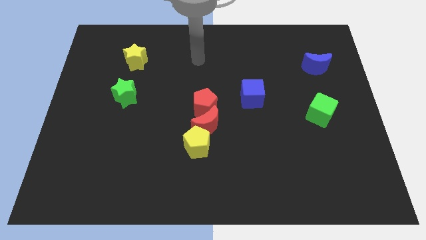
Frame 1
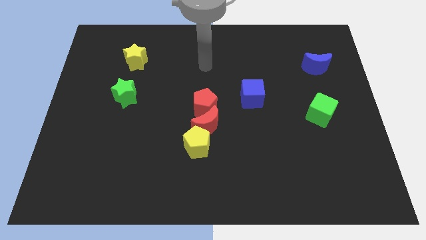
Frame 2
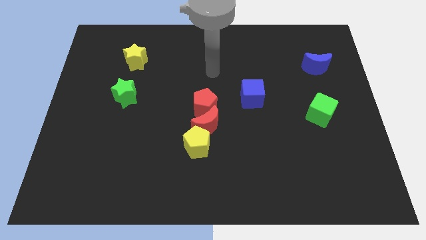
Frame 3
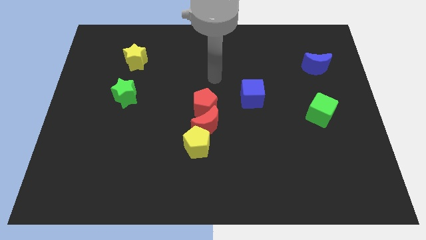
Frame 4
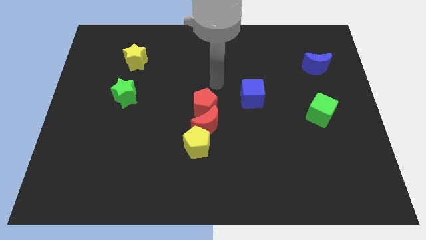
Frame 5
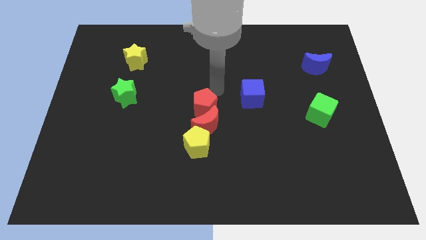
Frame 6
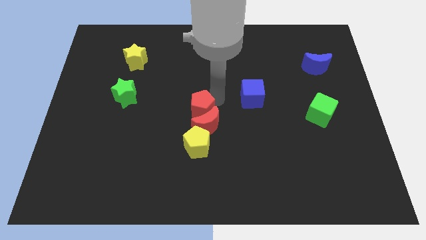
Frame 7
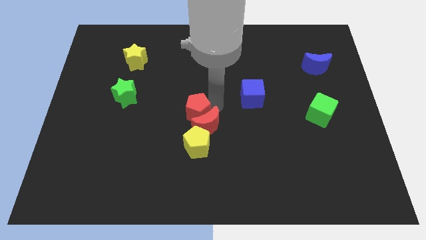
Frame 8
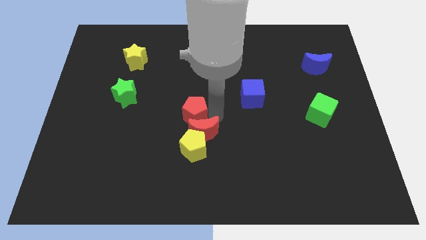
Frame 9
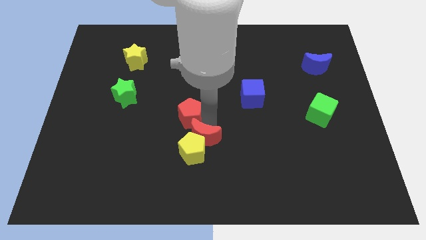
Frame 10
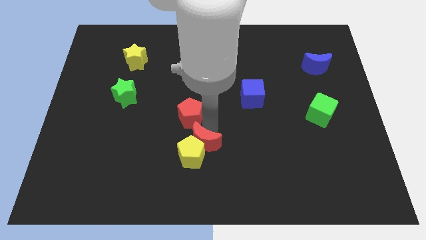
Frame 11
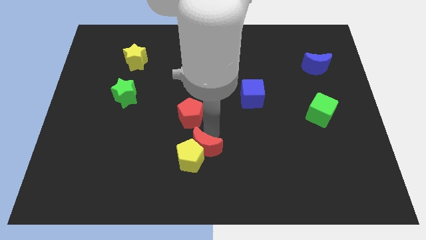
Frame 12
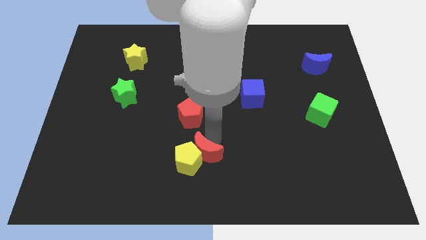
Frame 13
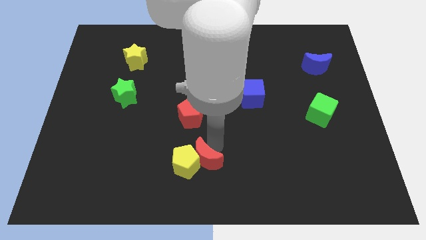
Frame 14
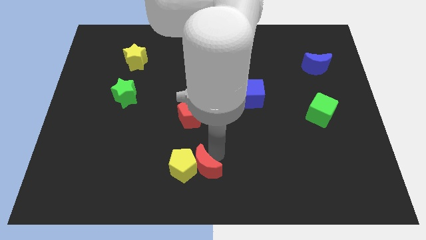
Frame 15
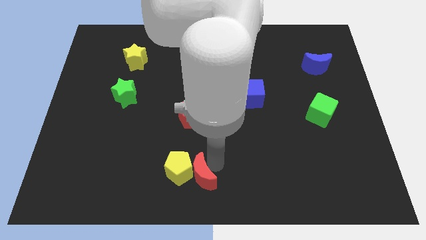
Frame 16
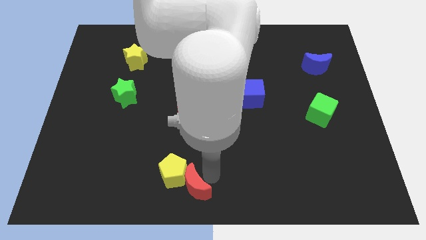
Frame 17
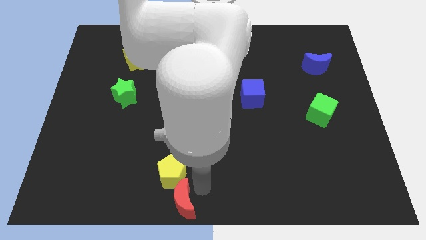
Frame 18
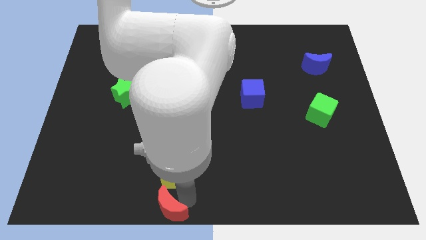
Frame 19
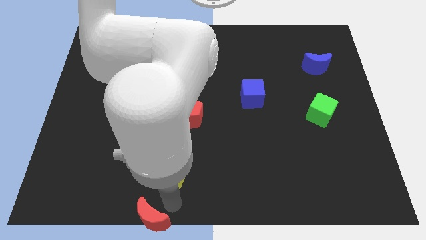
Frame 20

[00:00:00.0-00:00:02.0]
pull the yellow pentagon apart from the red moon

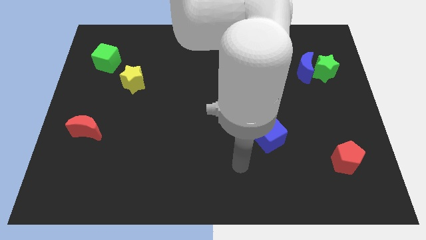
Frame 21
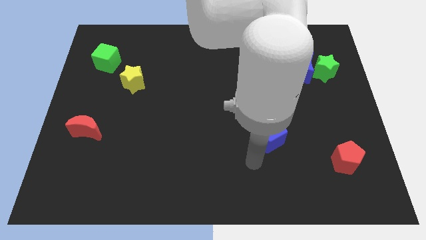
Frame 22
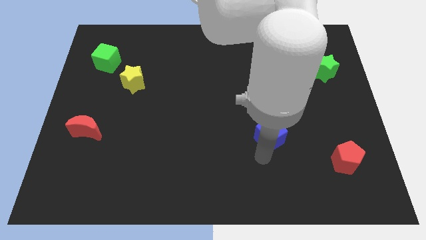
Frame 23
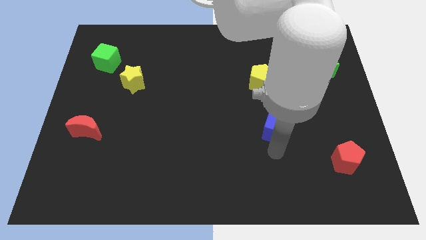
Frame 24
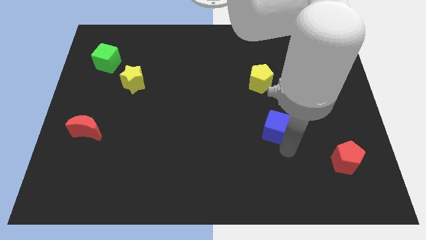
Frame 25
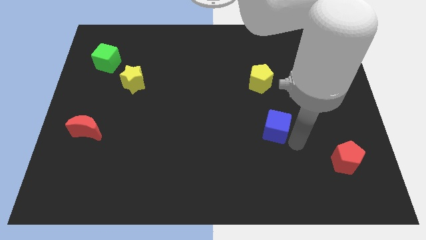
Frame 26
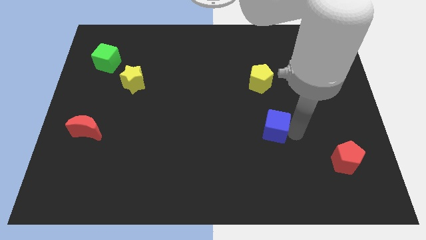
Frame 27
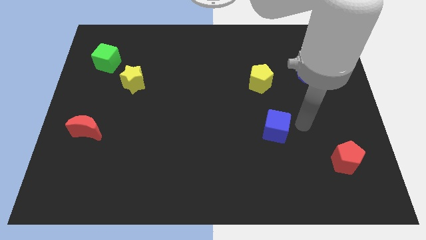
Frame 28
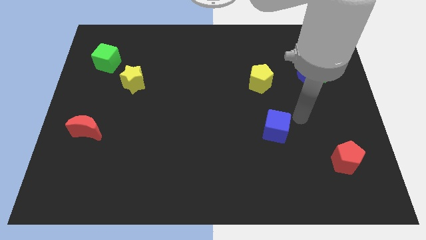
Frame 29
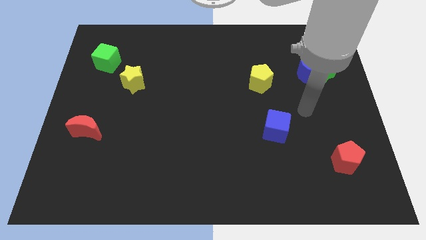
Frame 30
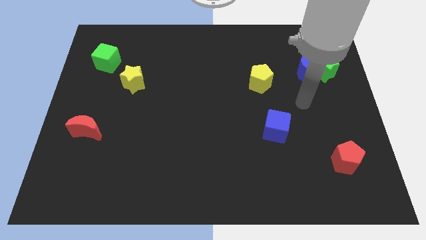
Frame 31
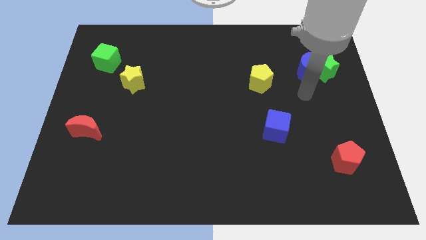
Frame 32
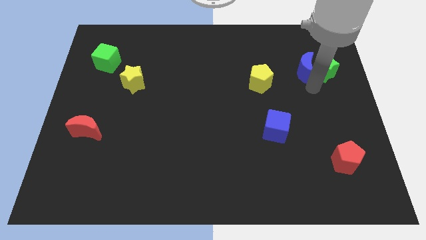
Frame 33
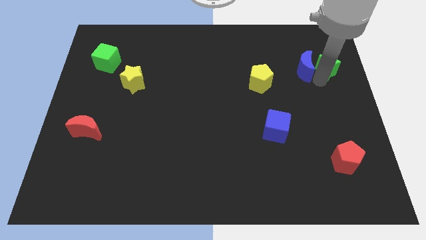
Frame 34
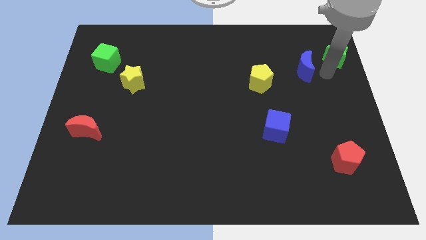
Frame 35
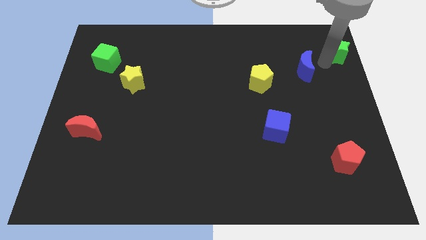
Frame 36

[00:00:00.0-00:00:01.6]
pull the blue moon apart from the green star

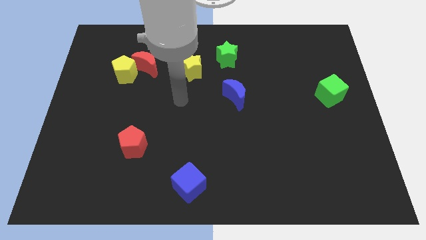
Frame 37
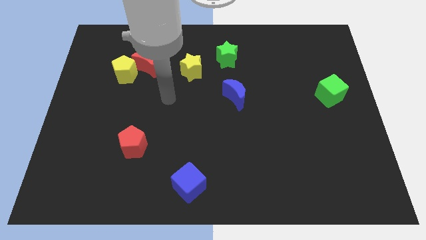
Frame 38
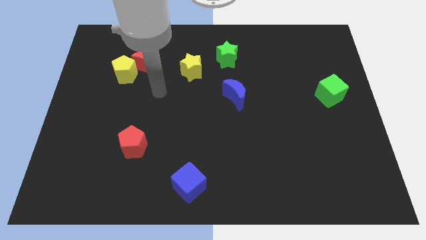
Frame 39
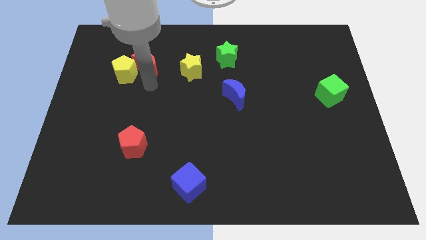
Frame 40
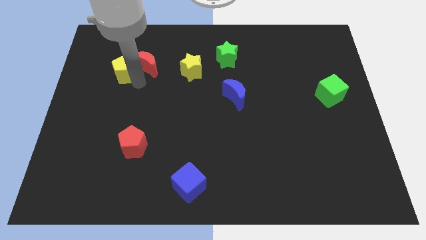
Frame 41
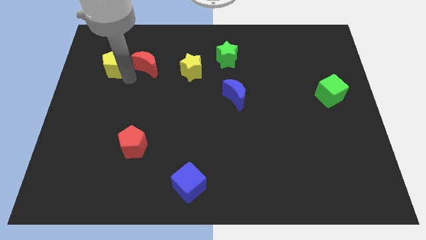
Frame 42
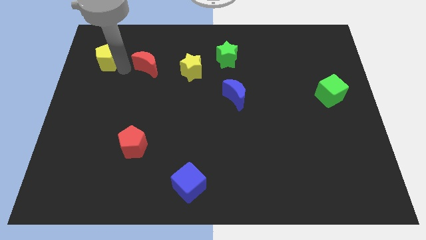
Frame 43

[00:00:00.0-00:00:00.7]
separate the red moon from the yellow pentagon

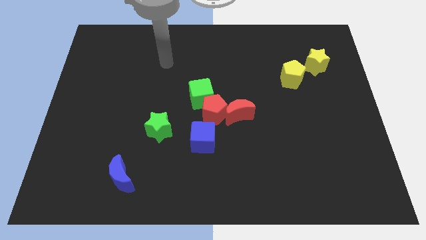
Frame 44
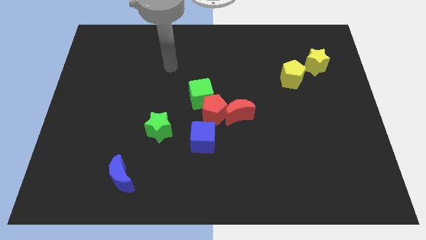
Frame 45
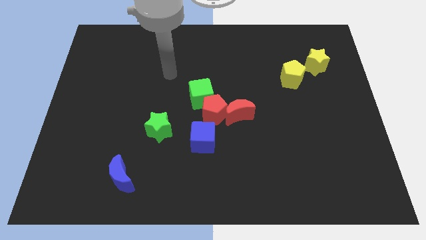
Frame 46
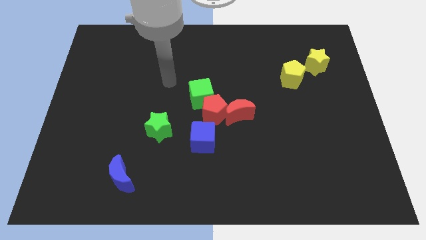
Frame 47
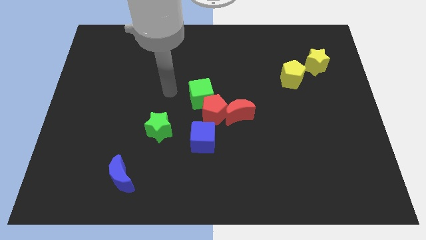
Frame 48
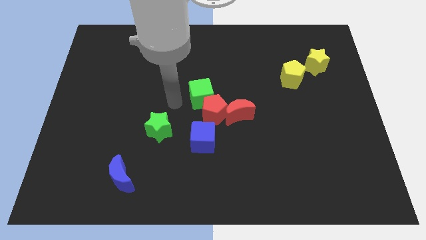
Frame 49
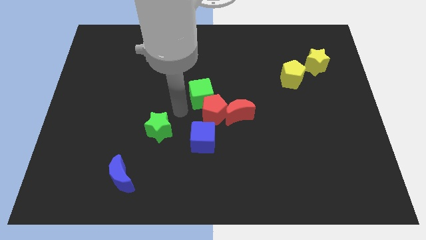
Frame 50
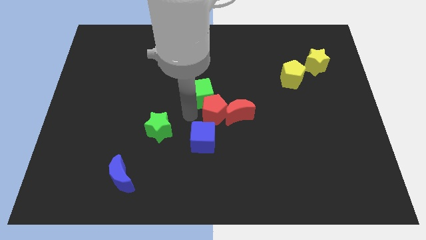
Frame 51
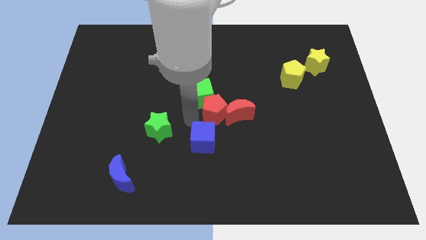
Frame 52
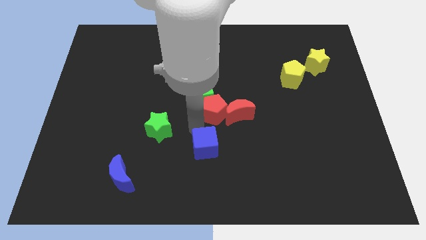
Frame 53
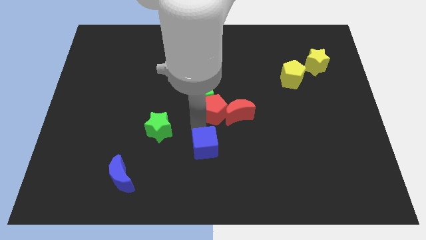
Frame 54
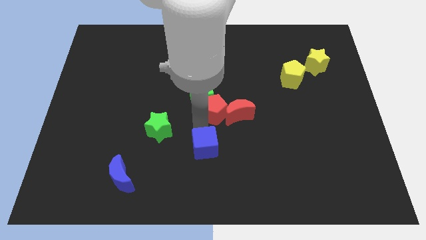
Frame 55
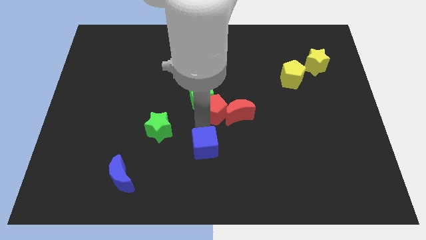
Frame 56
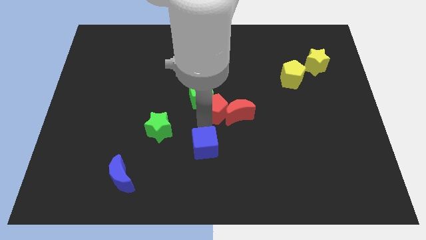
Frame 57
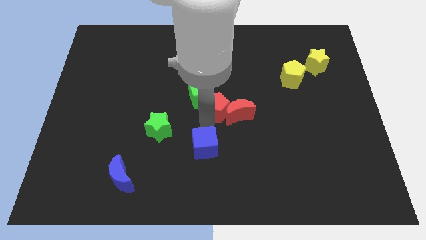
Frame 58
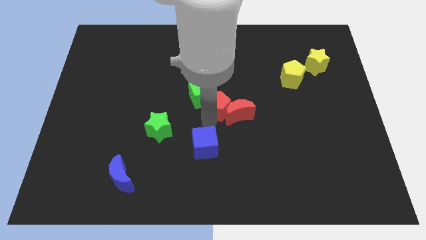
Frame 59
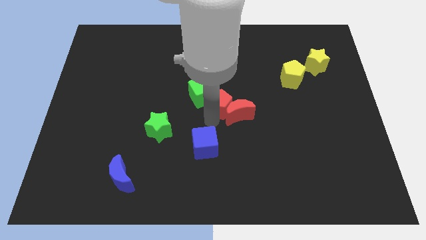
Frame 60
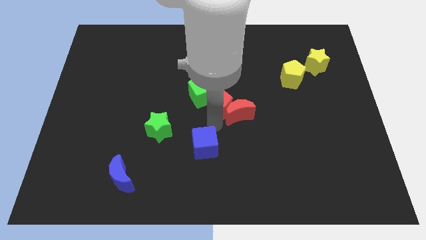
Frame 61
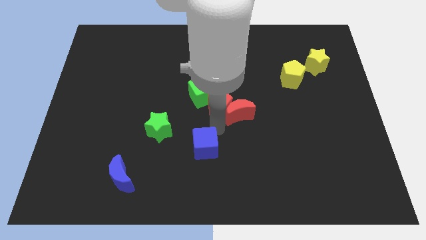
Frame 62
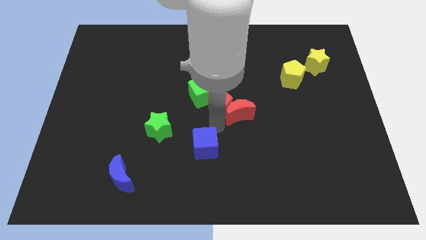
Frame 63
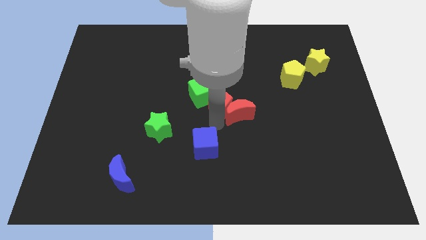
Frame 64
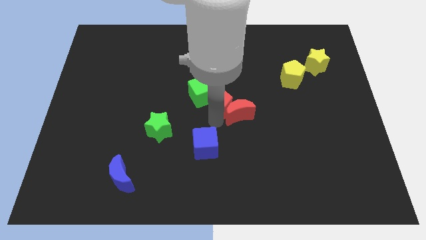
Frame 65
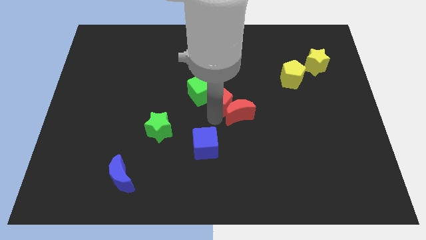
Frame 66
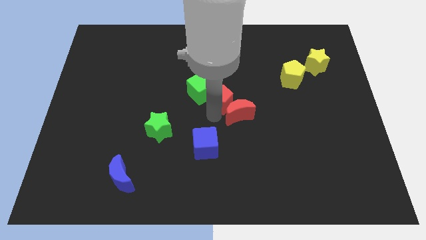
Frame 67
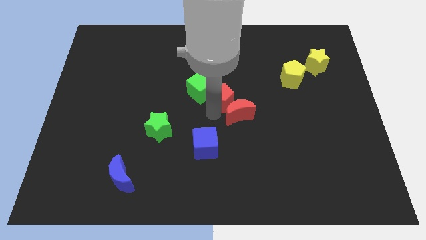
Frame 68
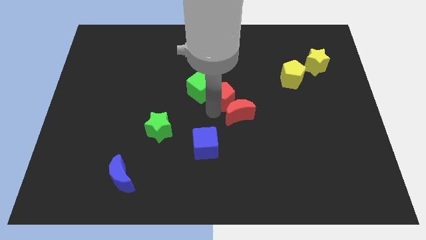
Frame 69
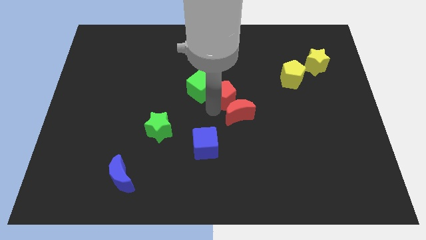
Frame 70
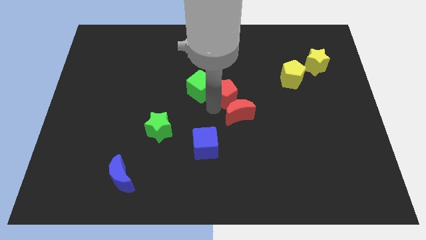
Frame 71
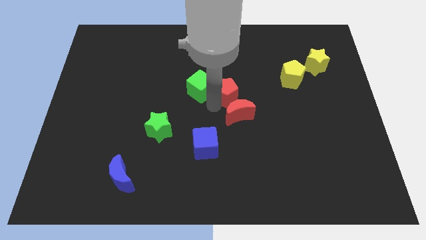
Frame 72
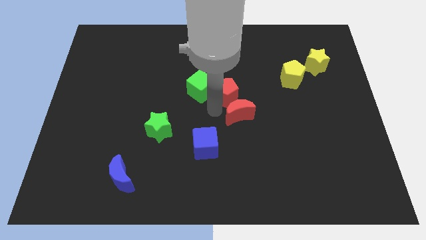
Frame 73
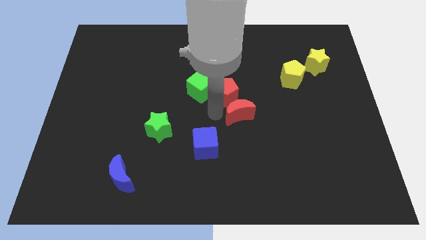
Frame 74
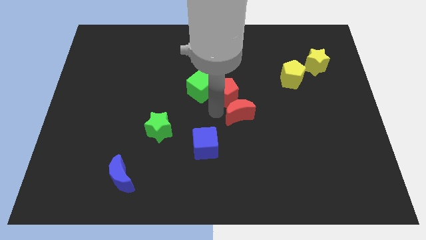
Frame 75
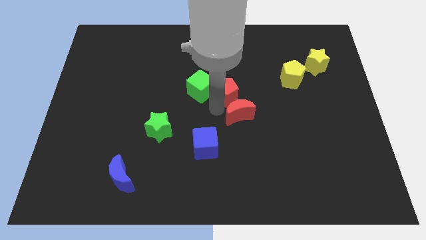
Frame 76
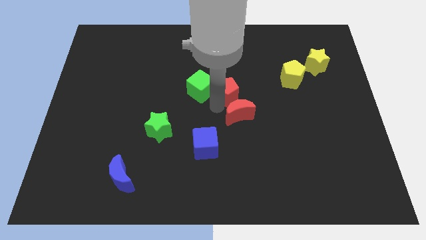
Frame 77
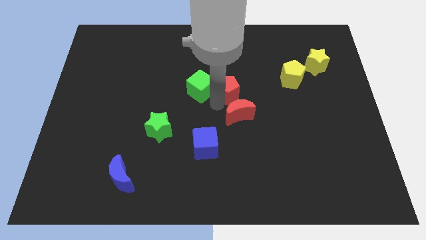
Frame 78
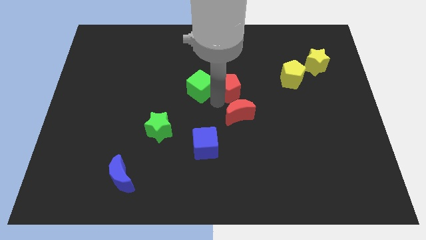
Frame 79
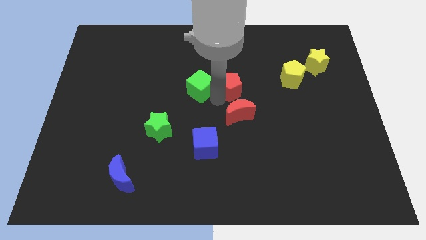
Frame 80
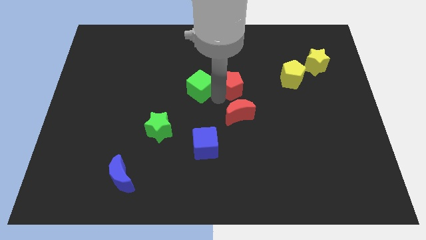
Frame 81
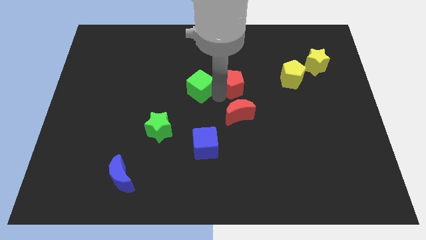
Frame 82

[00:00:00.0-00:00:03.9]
pull the red pentagon apart from the green cube, red moon, and blue cube

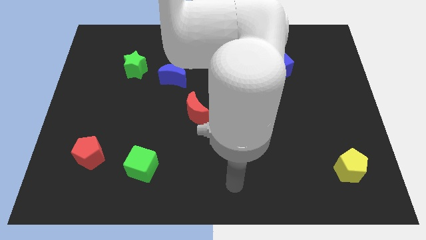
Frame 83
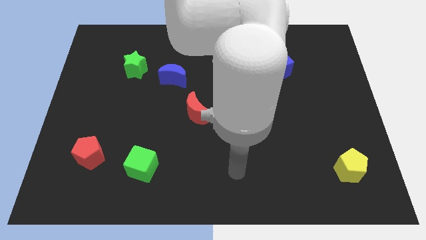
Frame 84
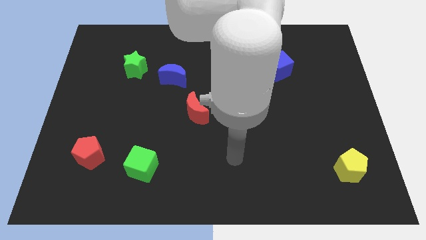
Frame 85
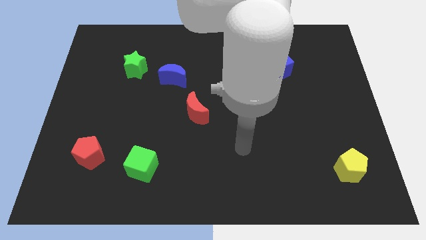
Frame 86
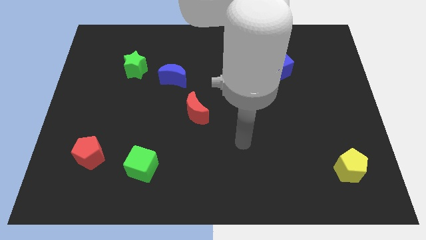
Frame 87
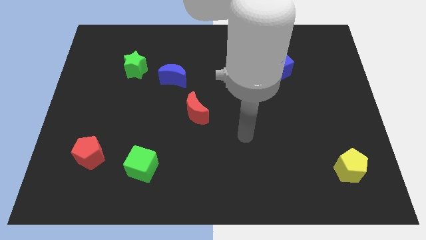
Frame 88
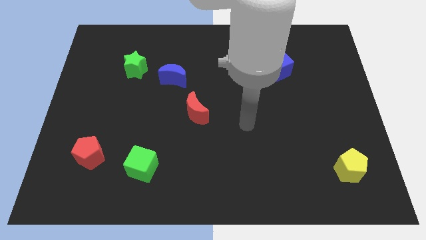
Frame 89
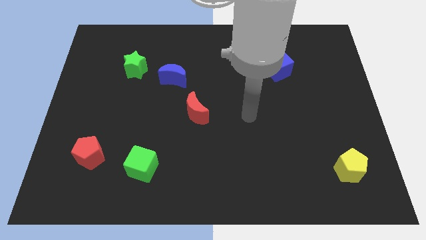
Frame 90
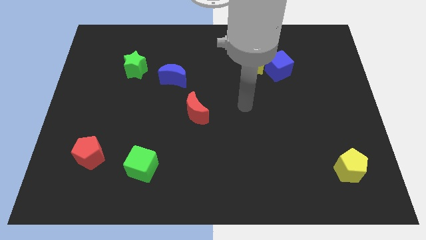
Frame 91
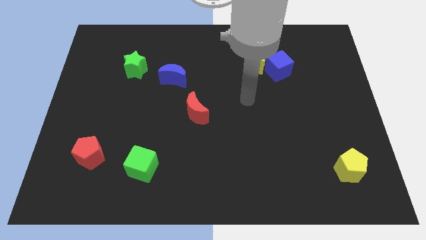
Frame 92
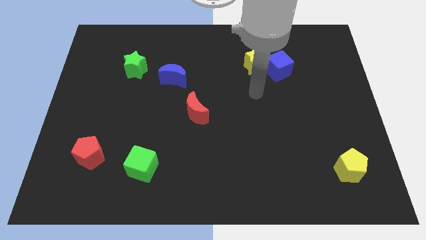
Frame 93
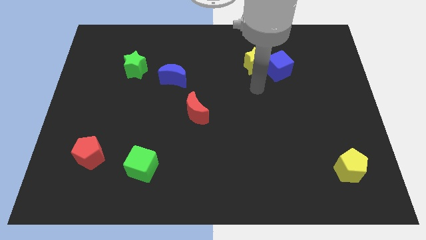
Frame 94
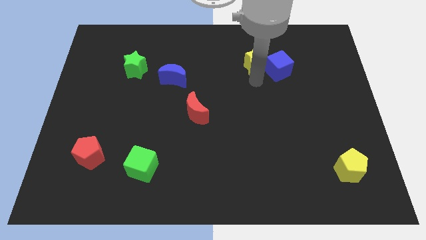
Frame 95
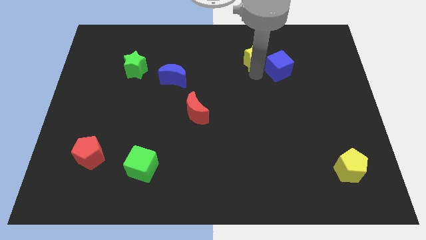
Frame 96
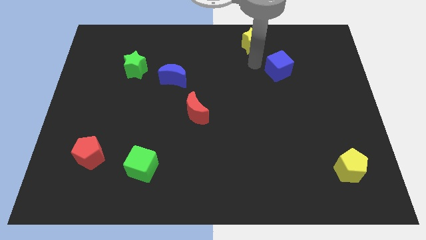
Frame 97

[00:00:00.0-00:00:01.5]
move the blue cube away from the yellow star
